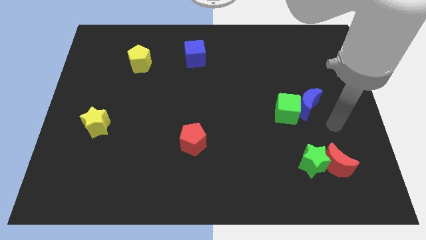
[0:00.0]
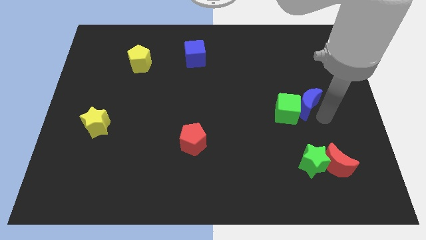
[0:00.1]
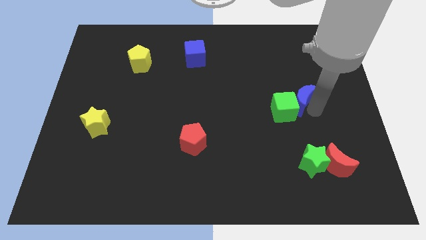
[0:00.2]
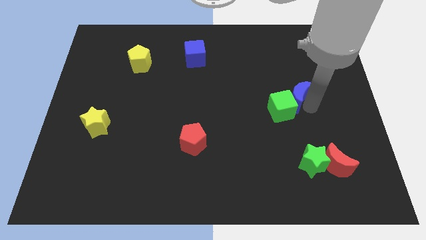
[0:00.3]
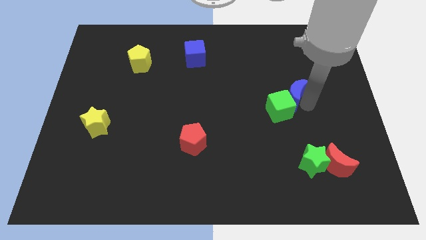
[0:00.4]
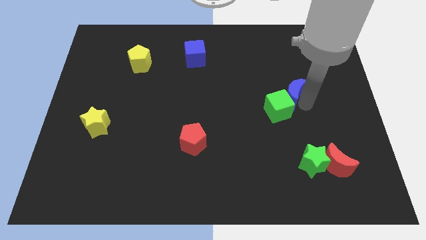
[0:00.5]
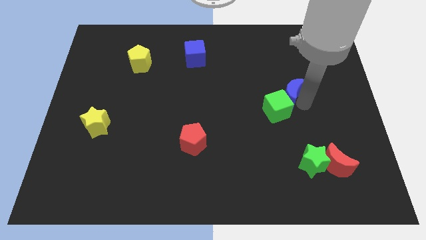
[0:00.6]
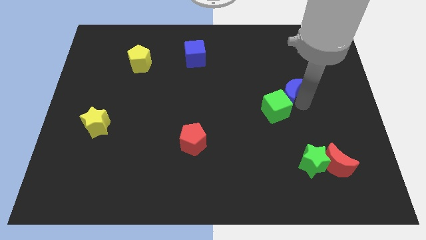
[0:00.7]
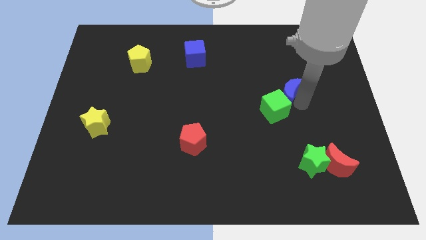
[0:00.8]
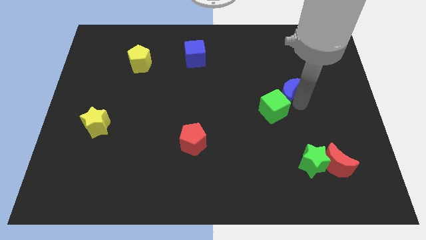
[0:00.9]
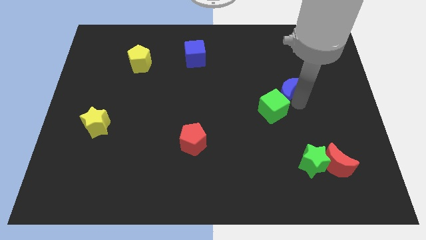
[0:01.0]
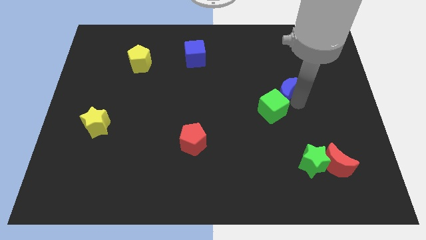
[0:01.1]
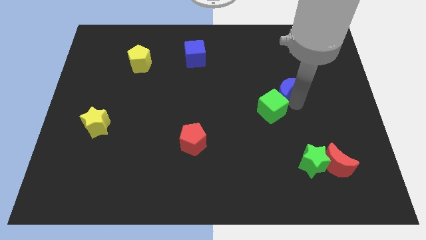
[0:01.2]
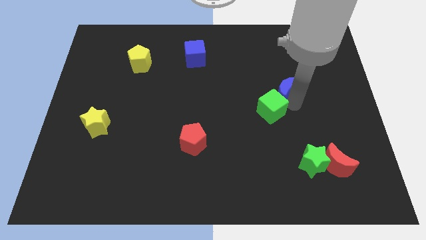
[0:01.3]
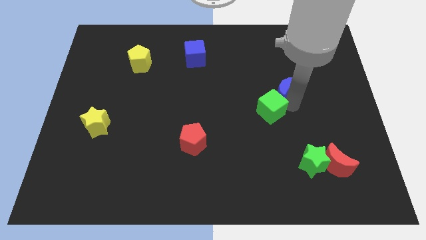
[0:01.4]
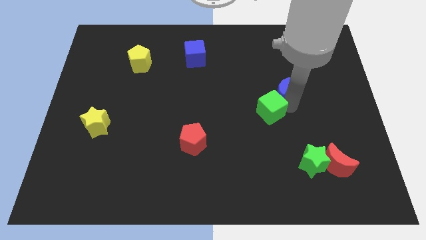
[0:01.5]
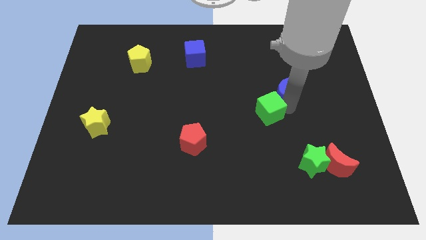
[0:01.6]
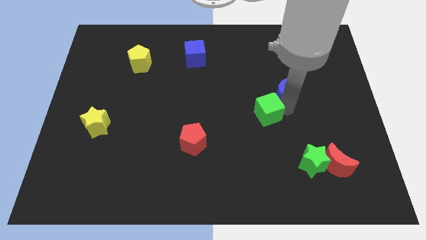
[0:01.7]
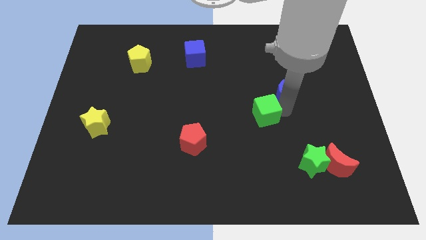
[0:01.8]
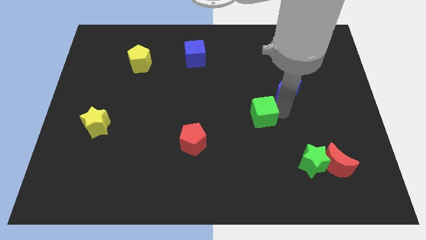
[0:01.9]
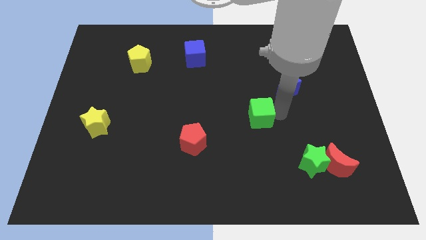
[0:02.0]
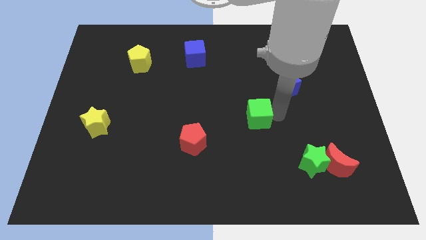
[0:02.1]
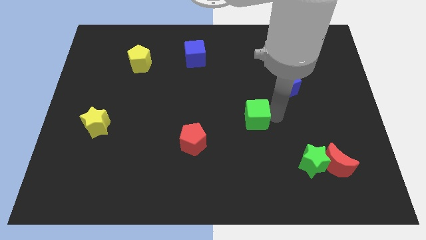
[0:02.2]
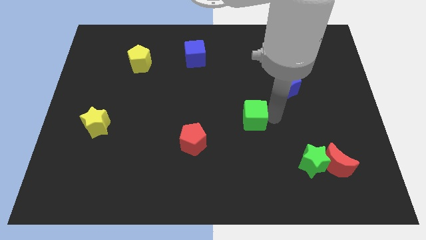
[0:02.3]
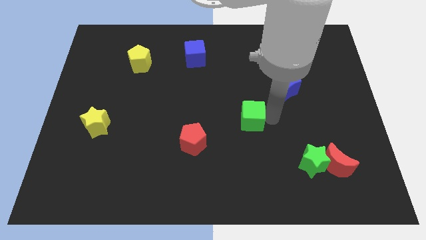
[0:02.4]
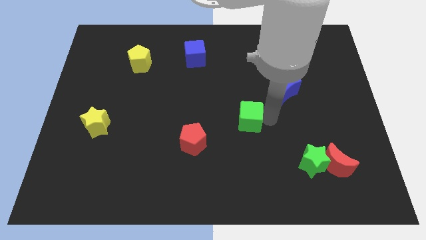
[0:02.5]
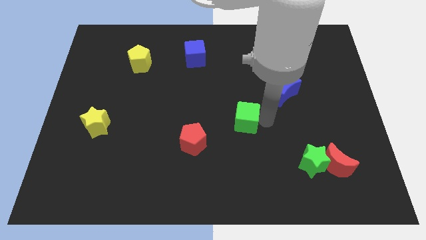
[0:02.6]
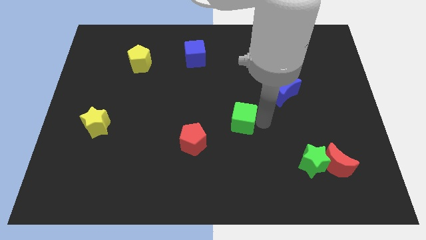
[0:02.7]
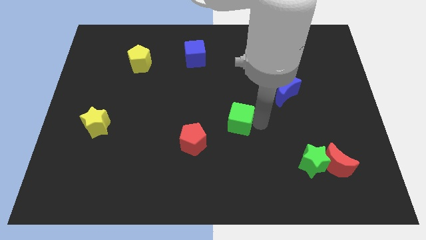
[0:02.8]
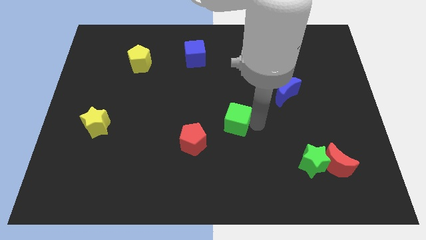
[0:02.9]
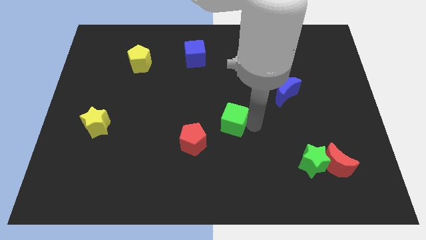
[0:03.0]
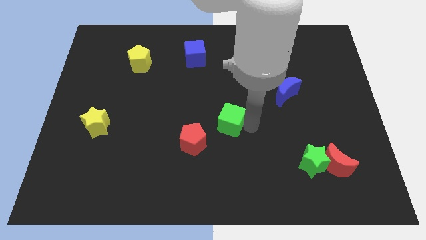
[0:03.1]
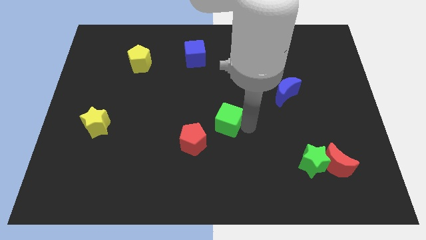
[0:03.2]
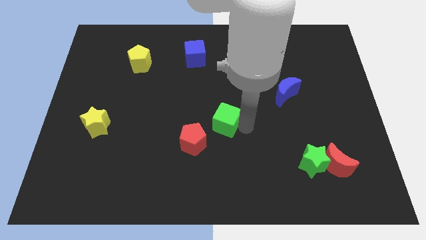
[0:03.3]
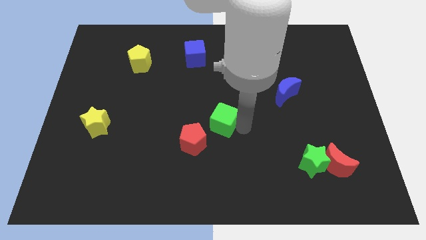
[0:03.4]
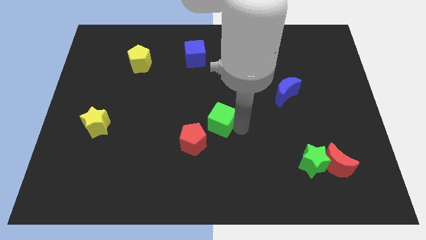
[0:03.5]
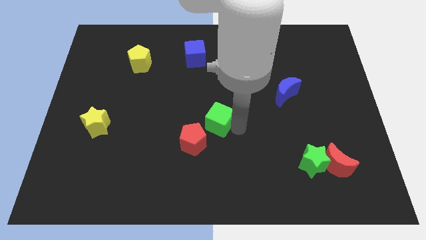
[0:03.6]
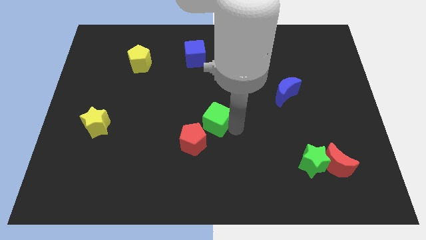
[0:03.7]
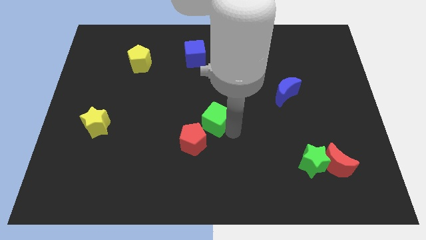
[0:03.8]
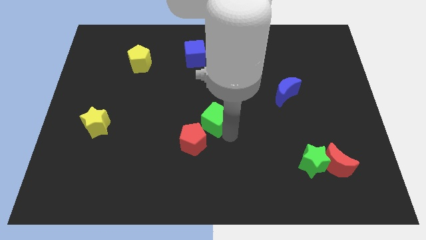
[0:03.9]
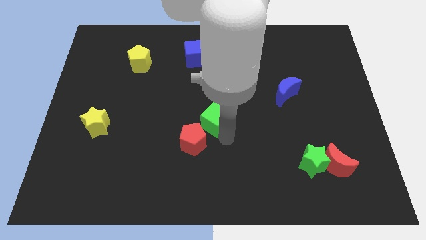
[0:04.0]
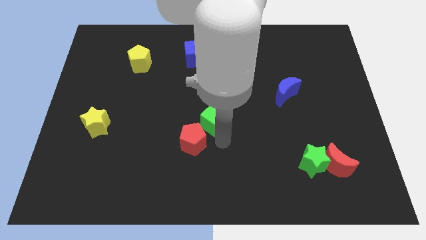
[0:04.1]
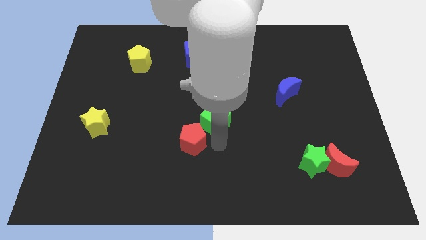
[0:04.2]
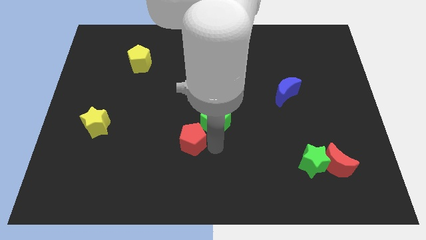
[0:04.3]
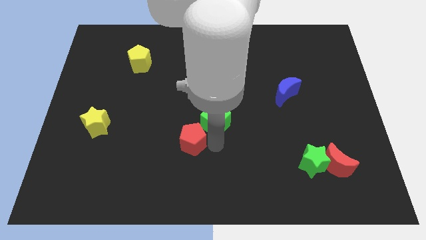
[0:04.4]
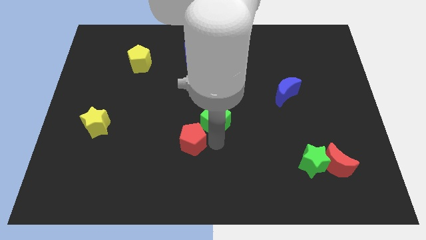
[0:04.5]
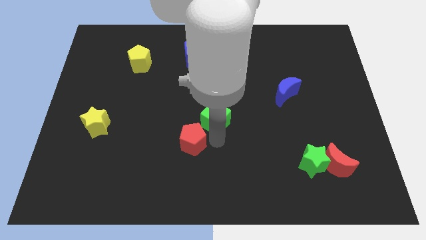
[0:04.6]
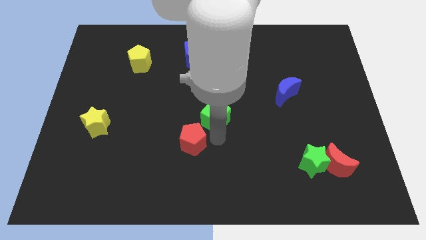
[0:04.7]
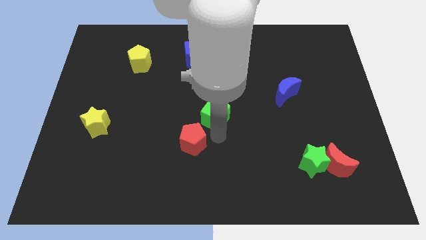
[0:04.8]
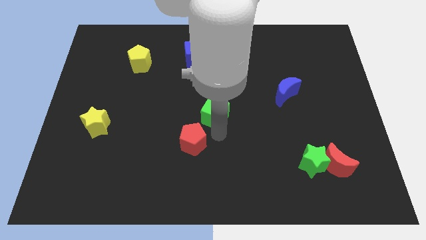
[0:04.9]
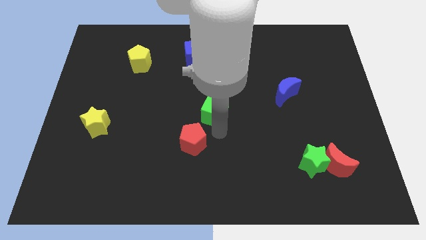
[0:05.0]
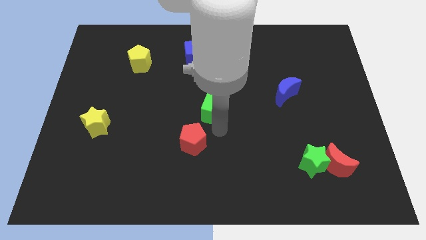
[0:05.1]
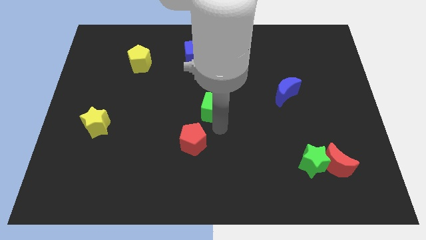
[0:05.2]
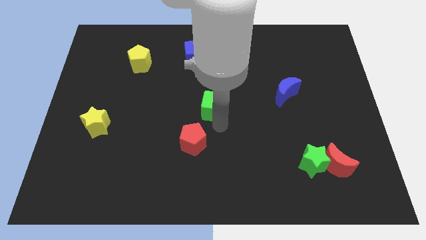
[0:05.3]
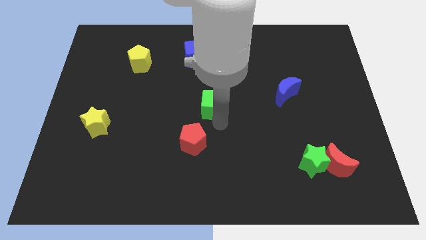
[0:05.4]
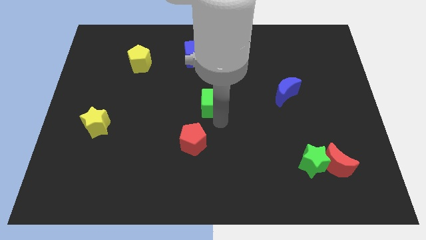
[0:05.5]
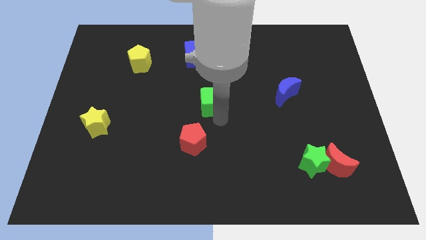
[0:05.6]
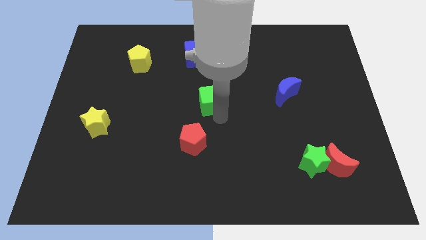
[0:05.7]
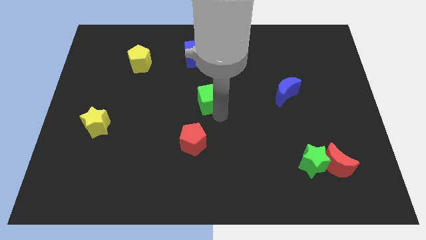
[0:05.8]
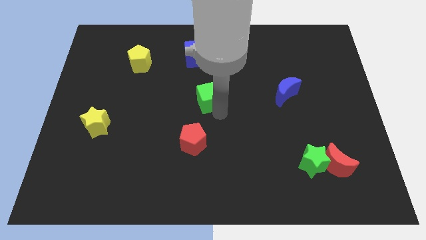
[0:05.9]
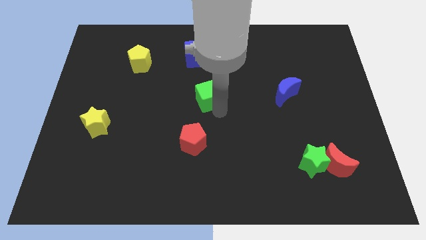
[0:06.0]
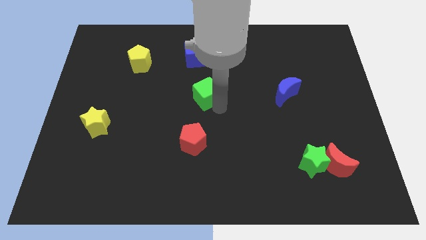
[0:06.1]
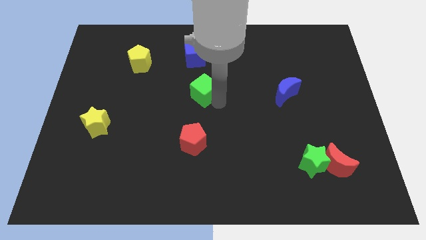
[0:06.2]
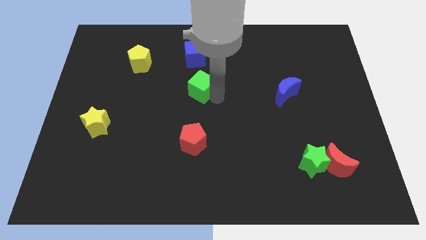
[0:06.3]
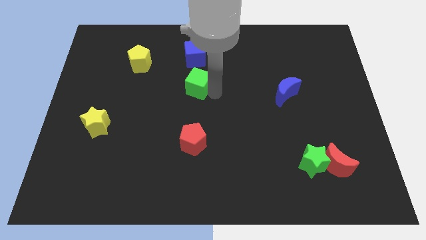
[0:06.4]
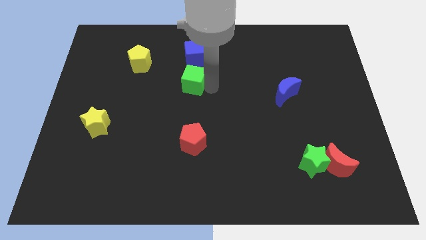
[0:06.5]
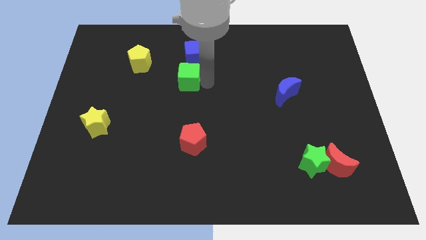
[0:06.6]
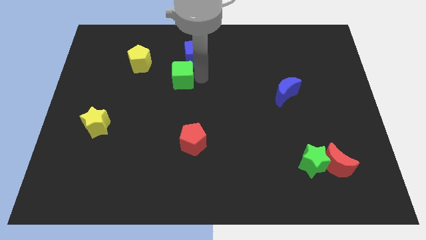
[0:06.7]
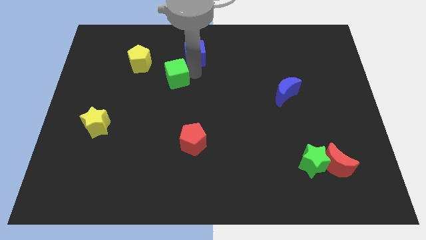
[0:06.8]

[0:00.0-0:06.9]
slide the green cube to the left

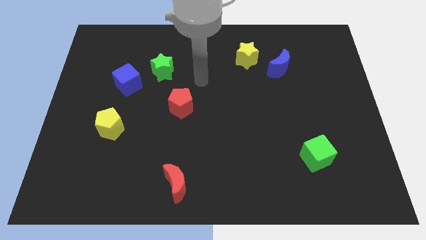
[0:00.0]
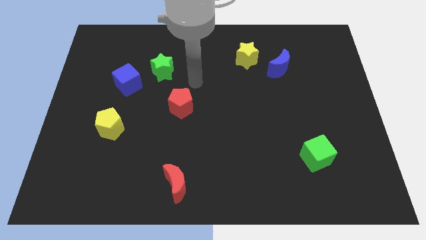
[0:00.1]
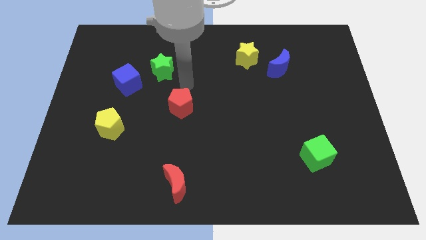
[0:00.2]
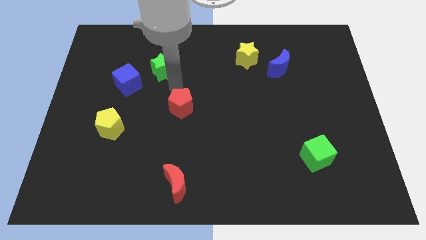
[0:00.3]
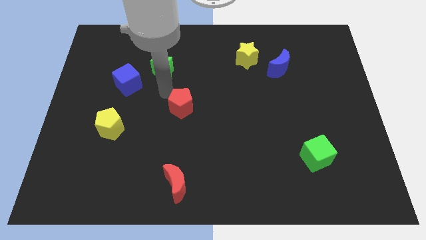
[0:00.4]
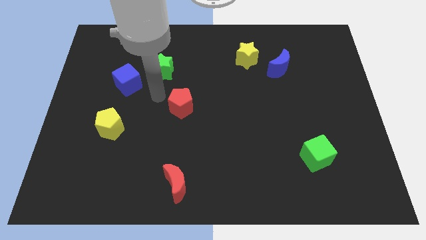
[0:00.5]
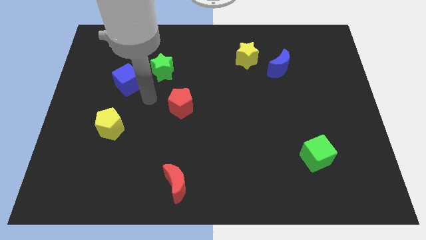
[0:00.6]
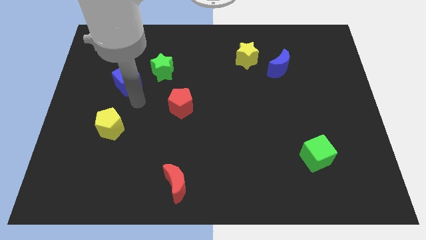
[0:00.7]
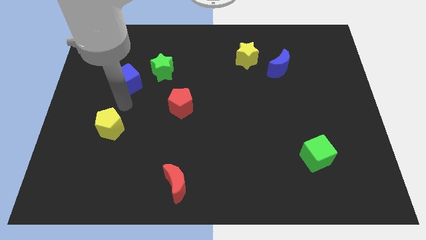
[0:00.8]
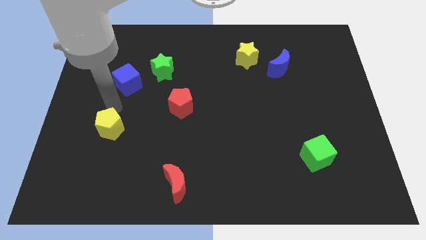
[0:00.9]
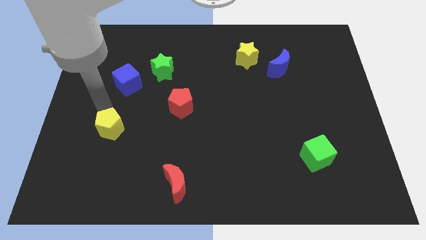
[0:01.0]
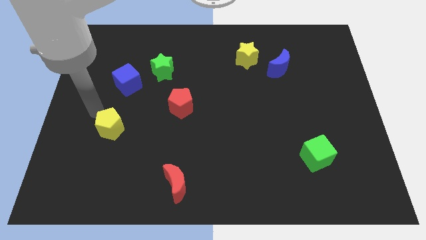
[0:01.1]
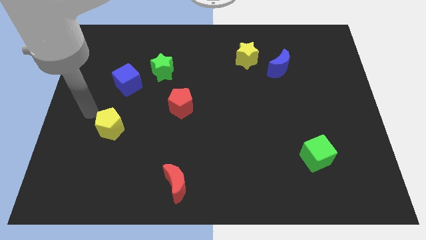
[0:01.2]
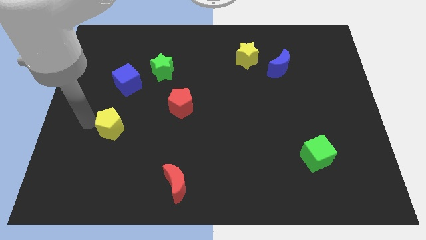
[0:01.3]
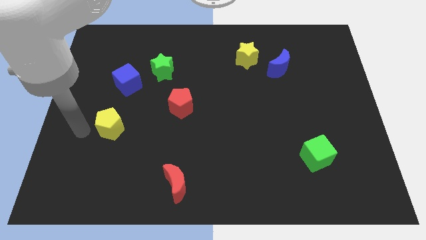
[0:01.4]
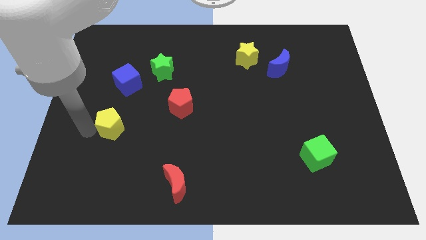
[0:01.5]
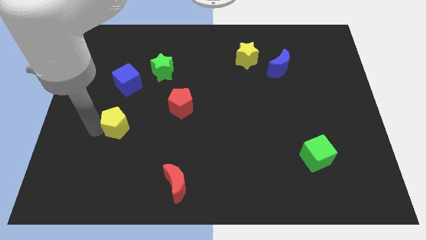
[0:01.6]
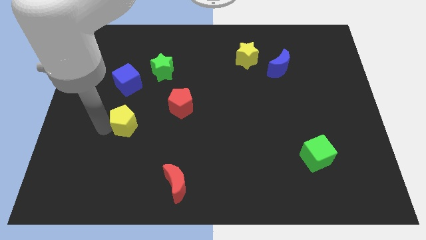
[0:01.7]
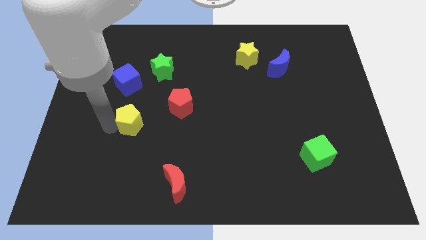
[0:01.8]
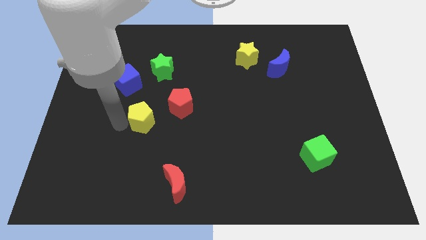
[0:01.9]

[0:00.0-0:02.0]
slide the yellow pentagon somewhat right
